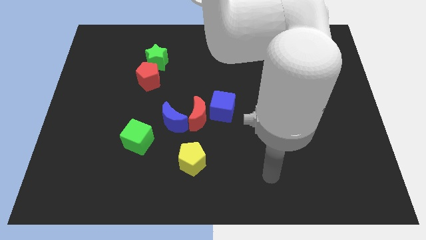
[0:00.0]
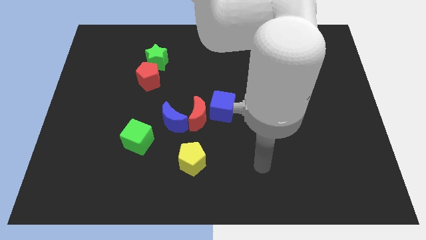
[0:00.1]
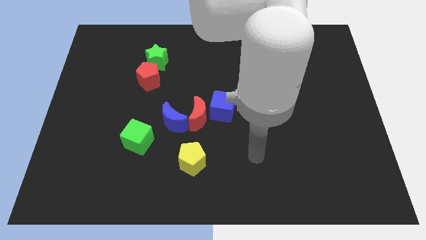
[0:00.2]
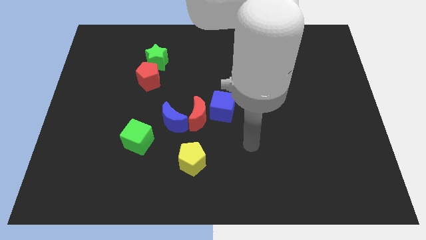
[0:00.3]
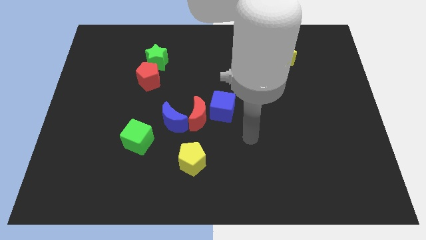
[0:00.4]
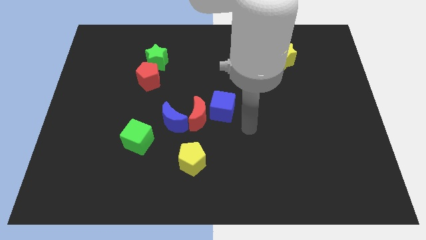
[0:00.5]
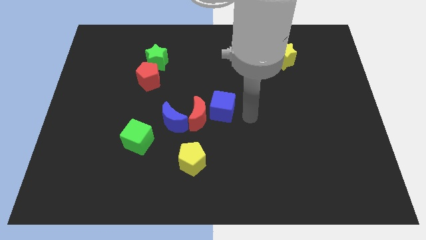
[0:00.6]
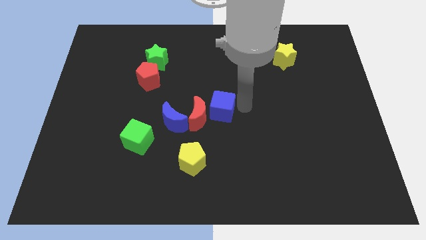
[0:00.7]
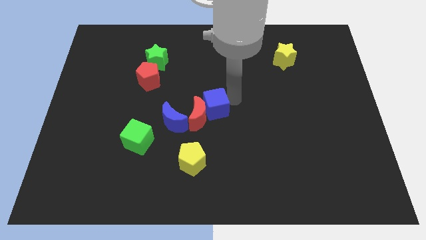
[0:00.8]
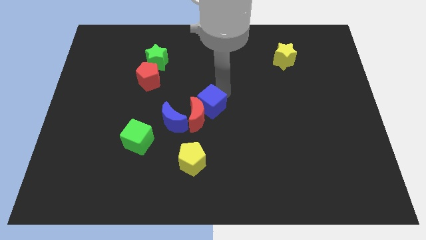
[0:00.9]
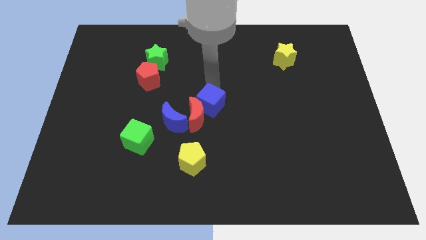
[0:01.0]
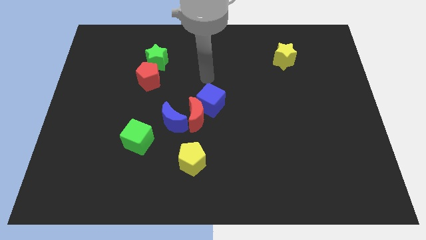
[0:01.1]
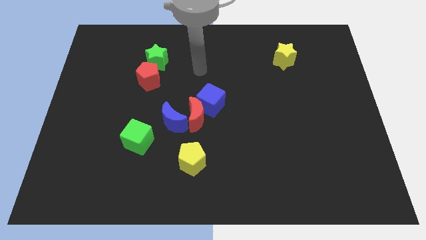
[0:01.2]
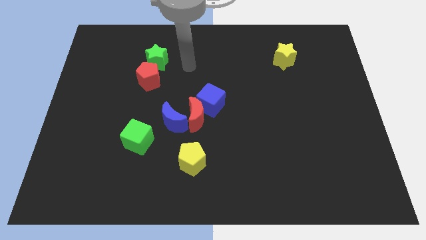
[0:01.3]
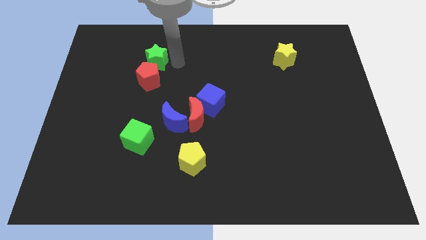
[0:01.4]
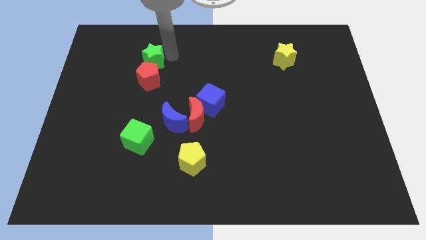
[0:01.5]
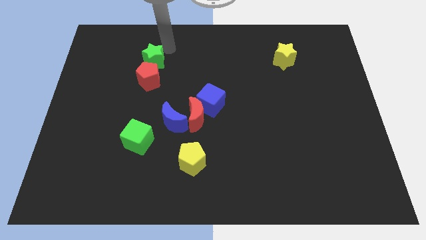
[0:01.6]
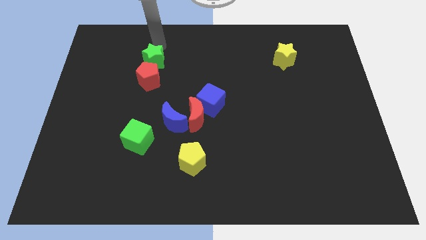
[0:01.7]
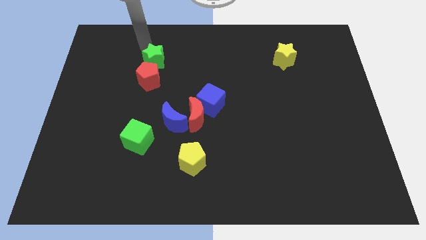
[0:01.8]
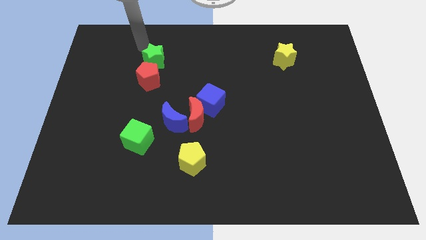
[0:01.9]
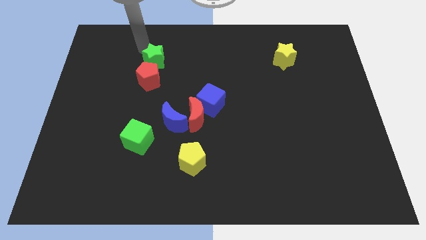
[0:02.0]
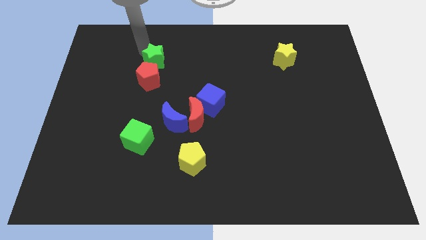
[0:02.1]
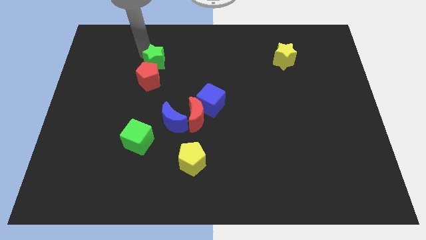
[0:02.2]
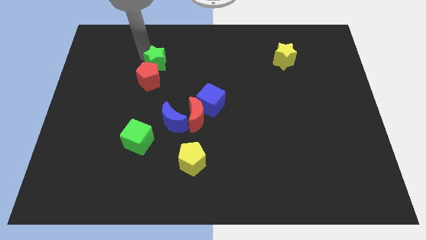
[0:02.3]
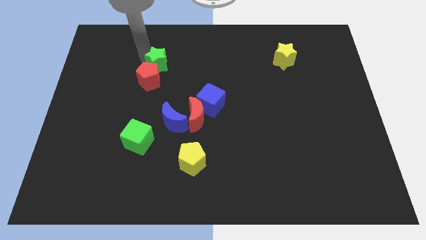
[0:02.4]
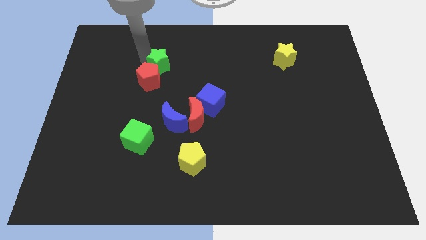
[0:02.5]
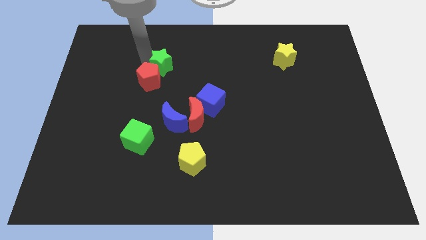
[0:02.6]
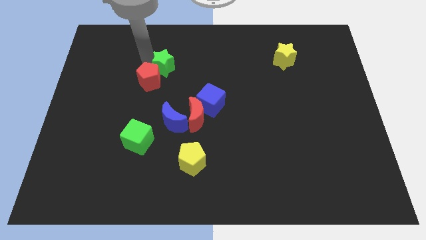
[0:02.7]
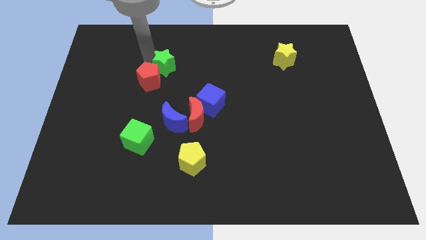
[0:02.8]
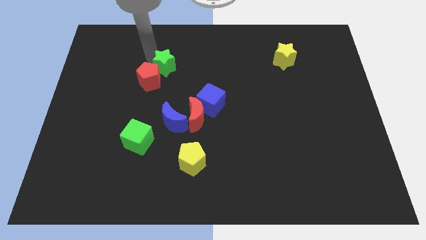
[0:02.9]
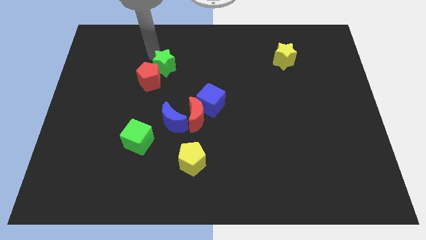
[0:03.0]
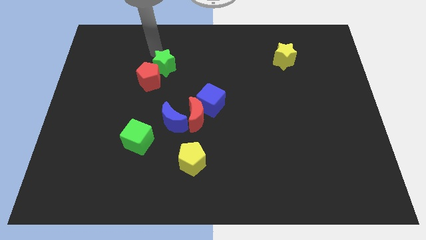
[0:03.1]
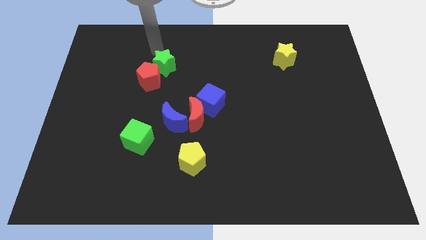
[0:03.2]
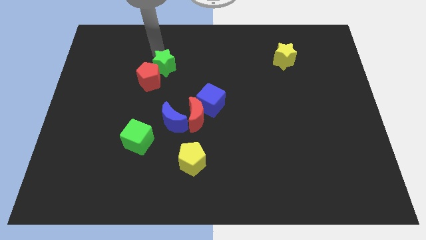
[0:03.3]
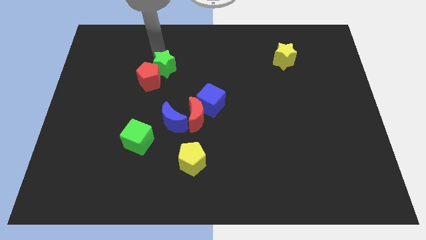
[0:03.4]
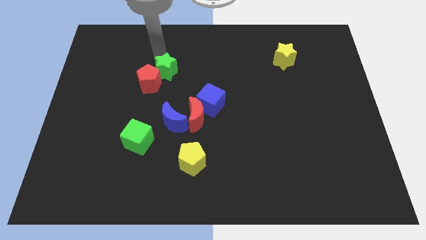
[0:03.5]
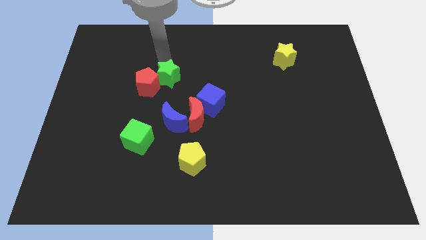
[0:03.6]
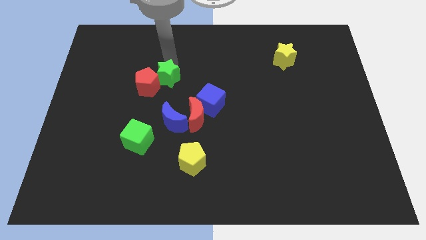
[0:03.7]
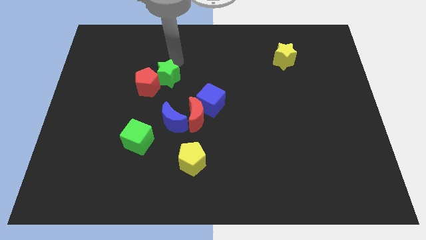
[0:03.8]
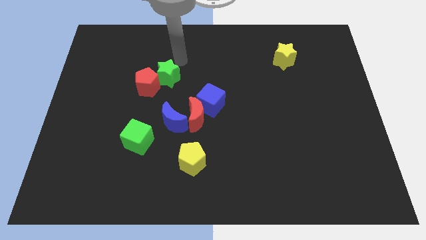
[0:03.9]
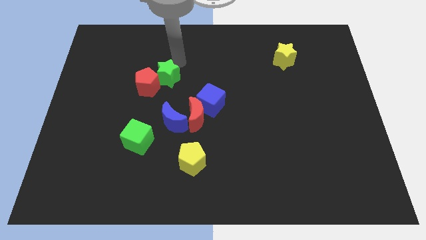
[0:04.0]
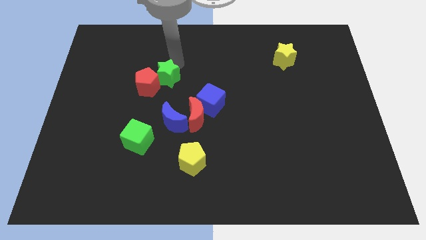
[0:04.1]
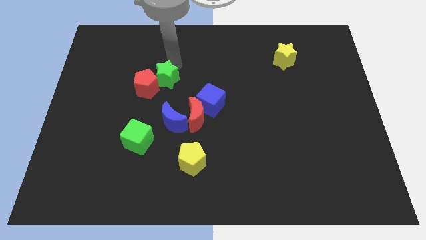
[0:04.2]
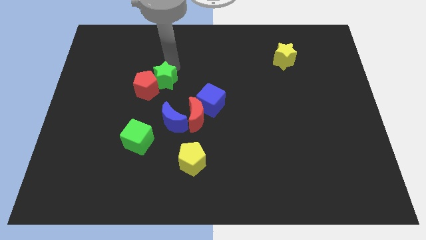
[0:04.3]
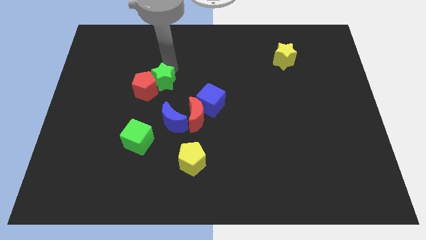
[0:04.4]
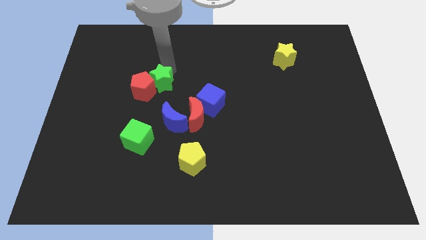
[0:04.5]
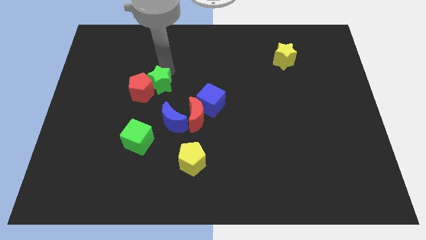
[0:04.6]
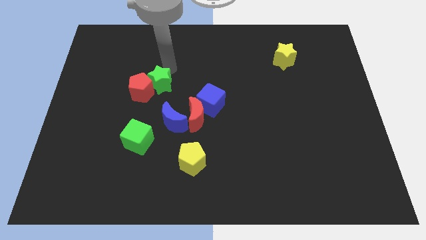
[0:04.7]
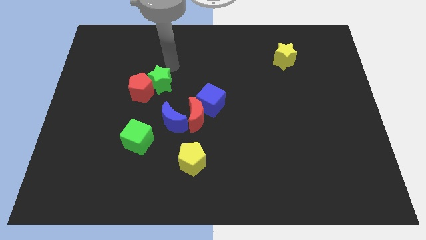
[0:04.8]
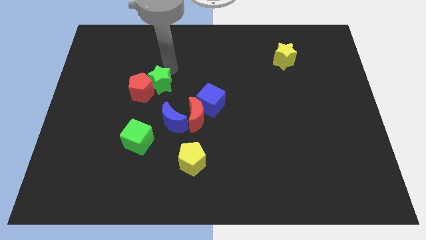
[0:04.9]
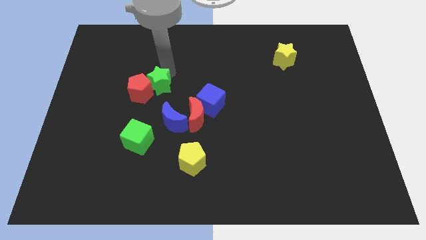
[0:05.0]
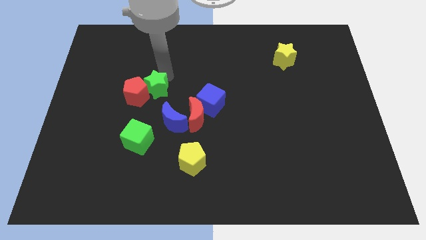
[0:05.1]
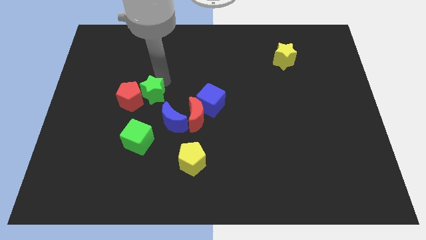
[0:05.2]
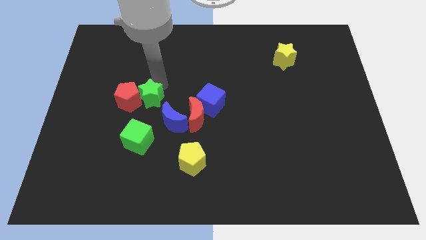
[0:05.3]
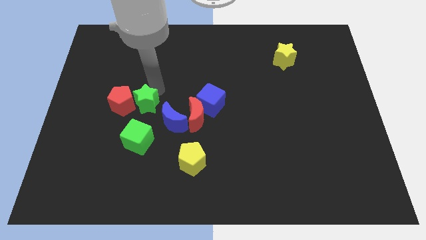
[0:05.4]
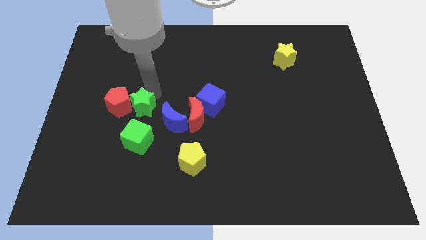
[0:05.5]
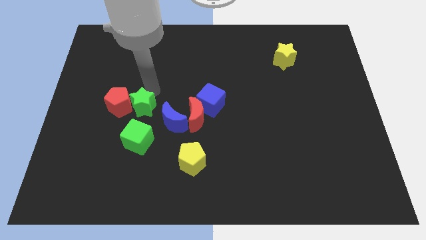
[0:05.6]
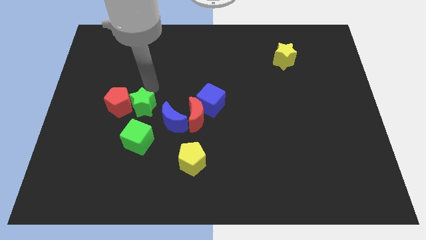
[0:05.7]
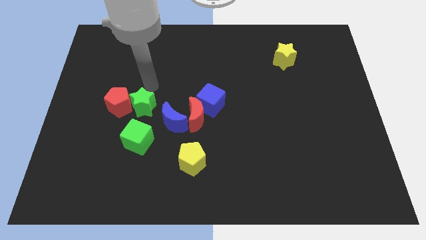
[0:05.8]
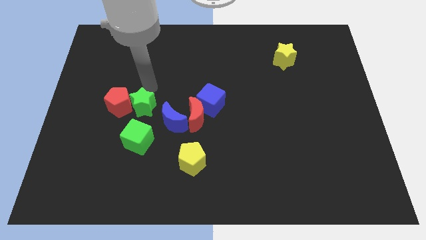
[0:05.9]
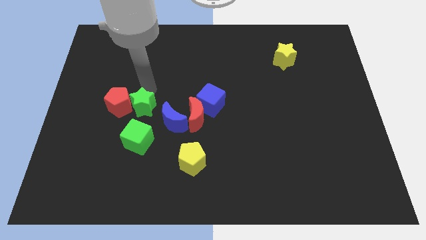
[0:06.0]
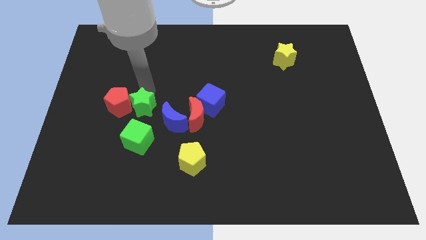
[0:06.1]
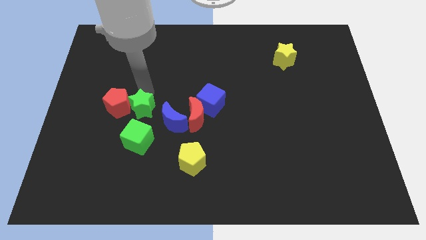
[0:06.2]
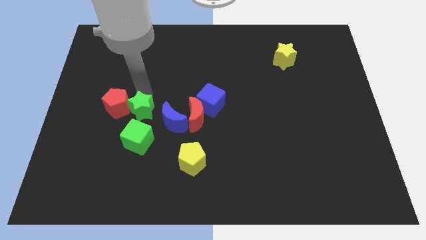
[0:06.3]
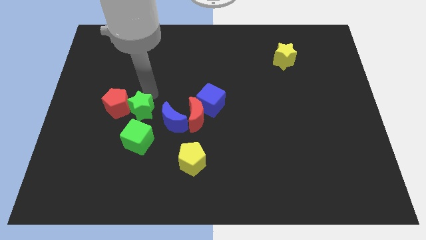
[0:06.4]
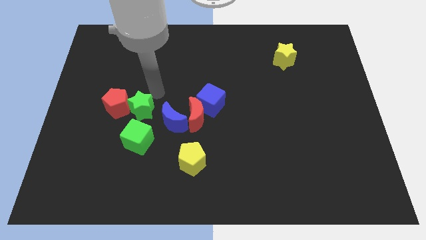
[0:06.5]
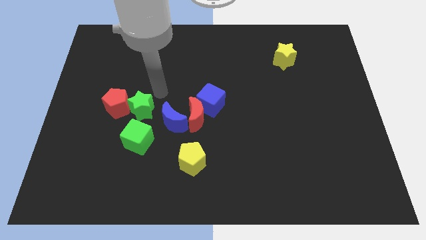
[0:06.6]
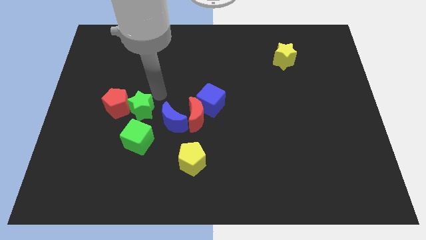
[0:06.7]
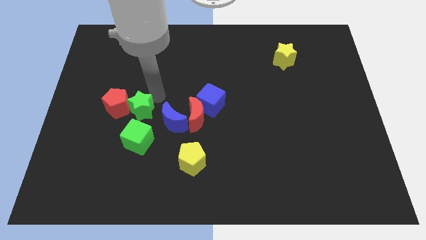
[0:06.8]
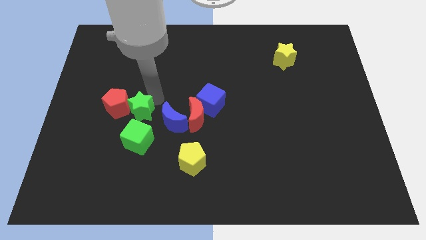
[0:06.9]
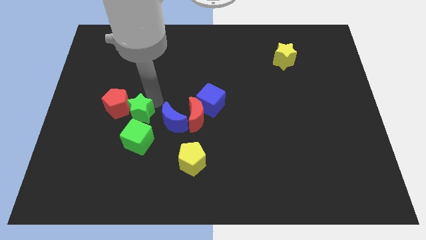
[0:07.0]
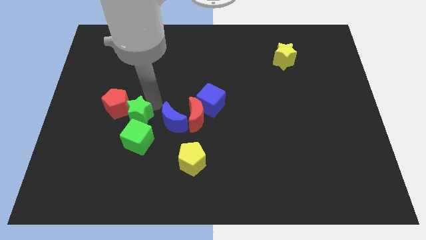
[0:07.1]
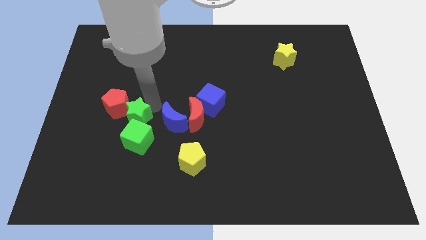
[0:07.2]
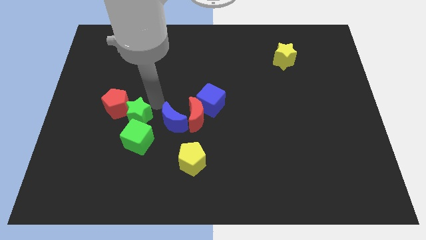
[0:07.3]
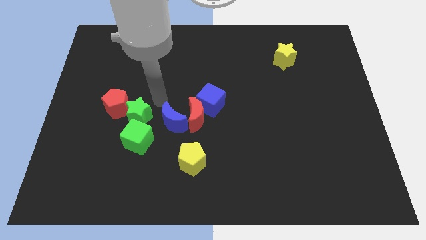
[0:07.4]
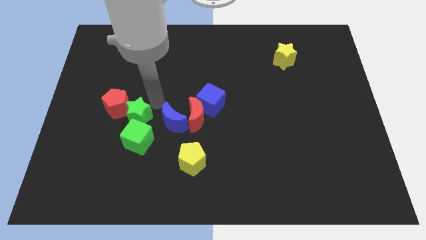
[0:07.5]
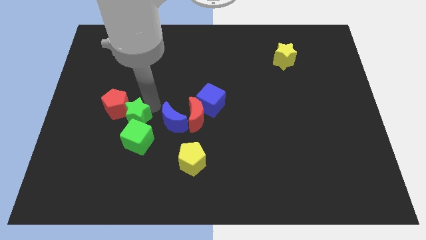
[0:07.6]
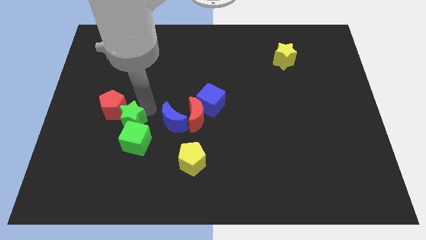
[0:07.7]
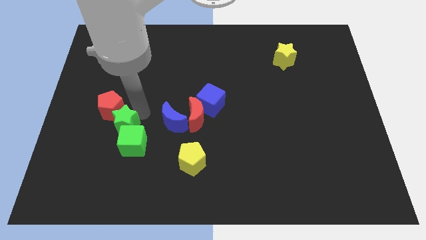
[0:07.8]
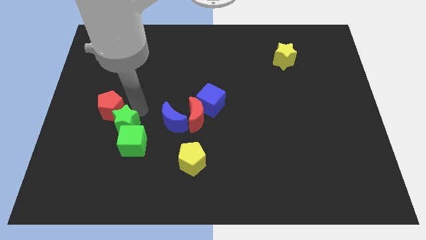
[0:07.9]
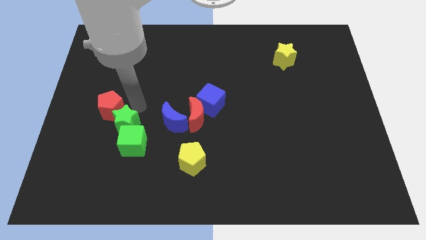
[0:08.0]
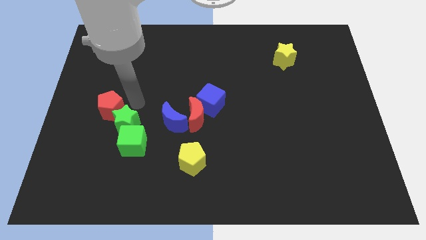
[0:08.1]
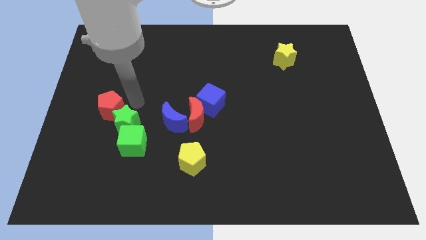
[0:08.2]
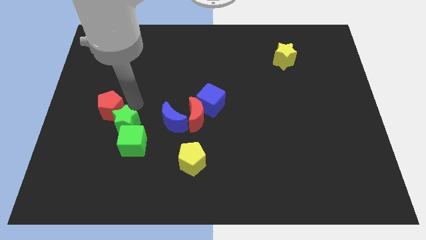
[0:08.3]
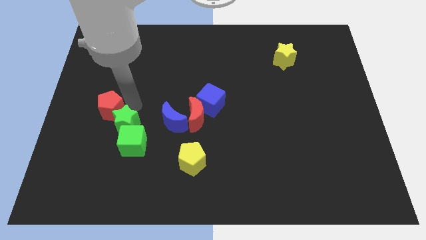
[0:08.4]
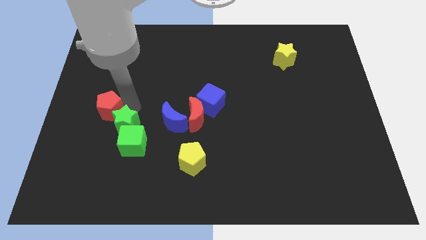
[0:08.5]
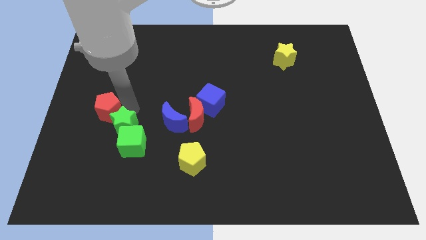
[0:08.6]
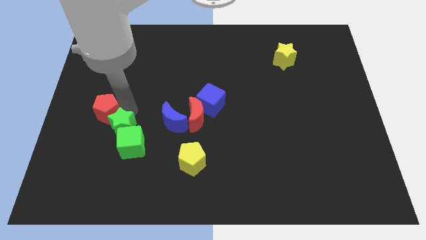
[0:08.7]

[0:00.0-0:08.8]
move the green star down
